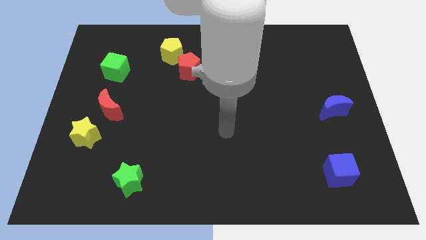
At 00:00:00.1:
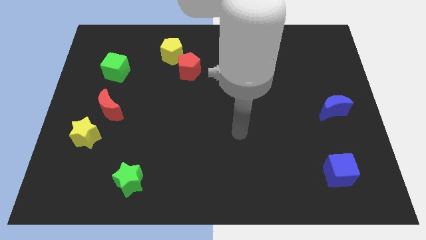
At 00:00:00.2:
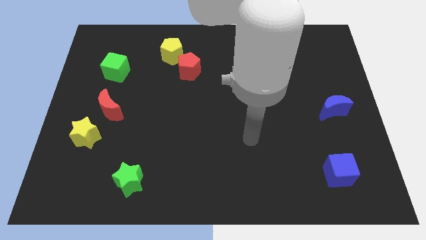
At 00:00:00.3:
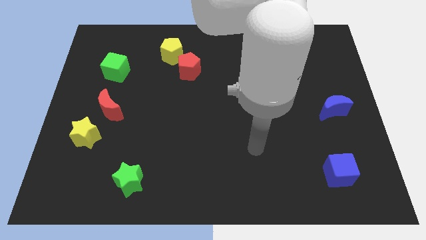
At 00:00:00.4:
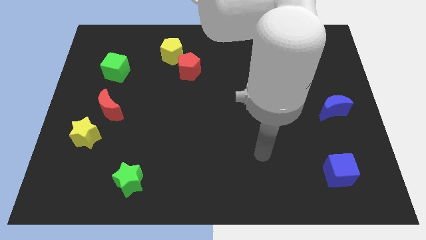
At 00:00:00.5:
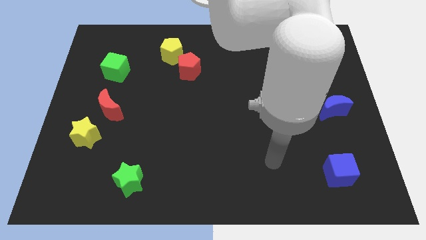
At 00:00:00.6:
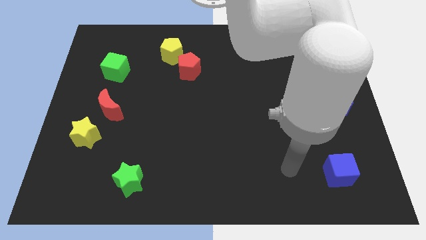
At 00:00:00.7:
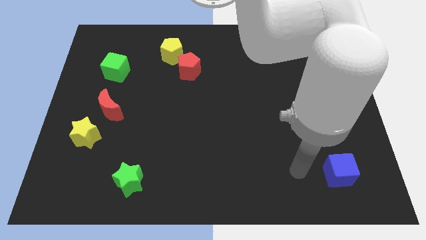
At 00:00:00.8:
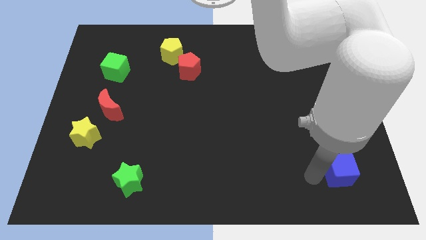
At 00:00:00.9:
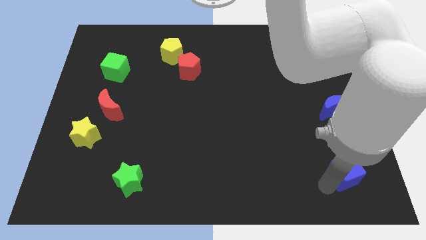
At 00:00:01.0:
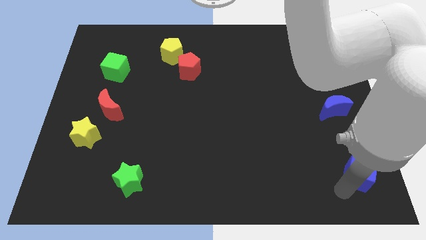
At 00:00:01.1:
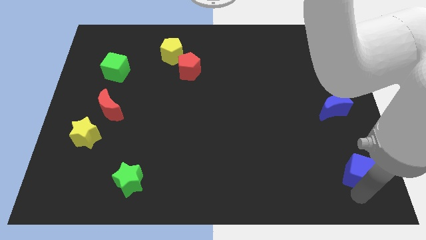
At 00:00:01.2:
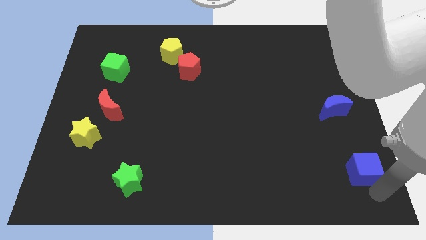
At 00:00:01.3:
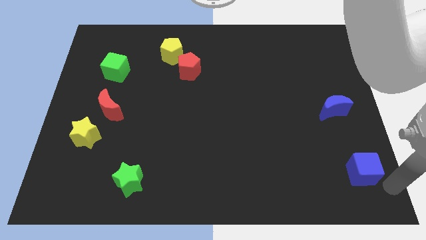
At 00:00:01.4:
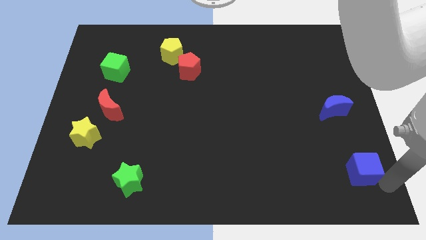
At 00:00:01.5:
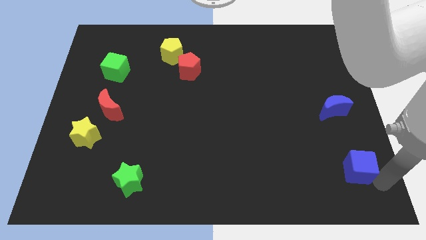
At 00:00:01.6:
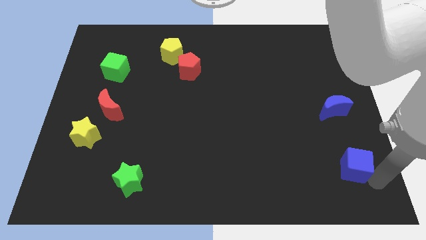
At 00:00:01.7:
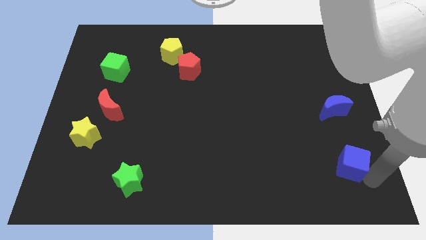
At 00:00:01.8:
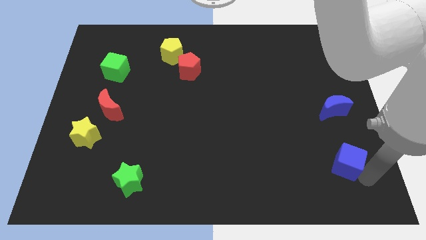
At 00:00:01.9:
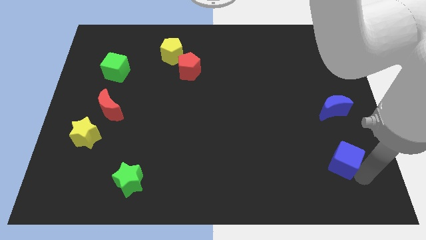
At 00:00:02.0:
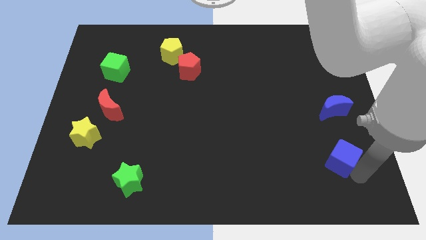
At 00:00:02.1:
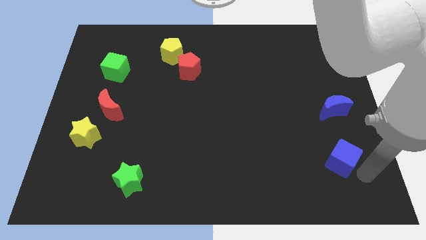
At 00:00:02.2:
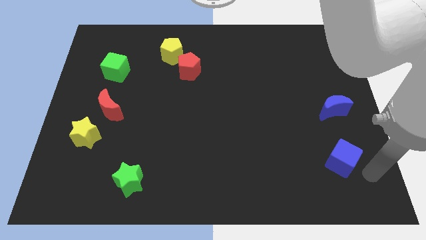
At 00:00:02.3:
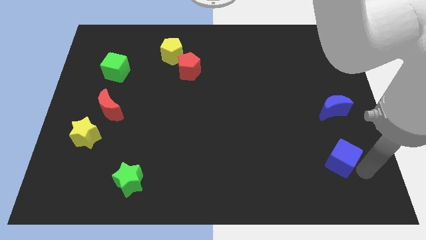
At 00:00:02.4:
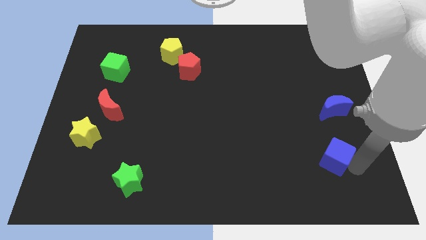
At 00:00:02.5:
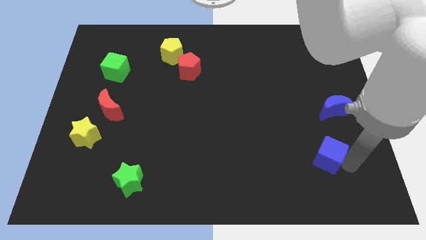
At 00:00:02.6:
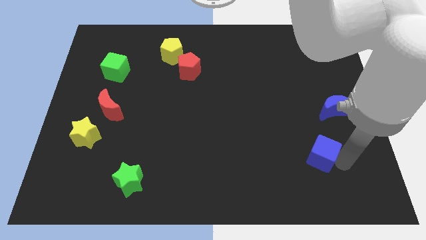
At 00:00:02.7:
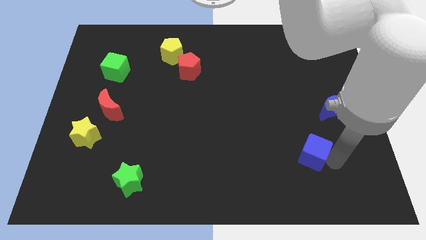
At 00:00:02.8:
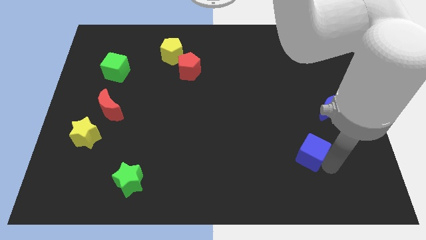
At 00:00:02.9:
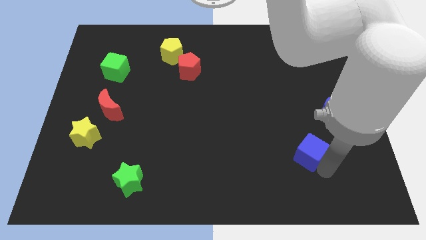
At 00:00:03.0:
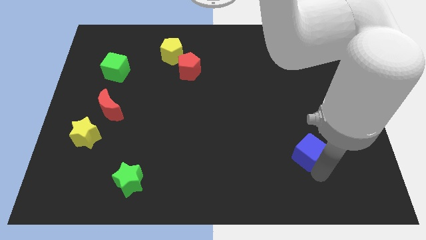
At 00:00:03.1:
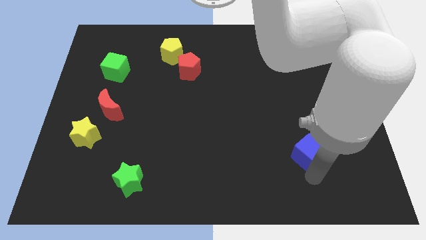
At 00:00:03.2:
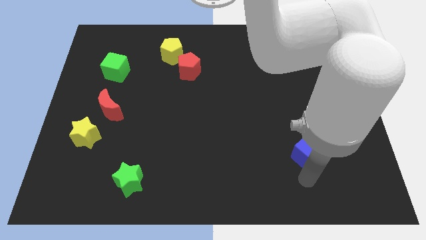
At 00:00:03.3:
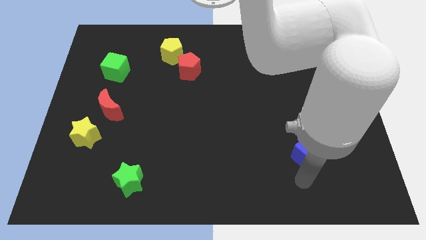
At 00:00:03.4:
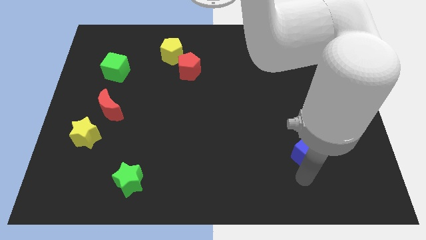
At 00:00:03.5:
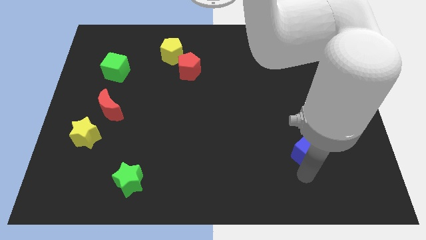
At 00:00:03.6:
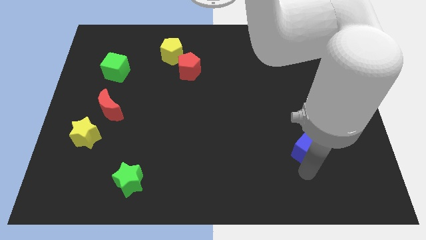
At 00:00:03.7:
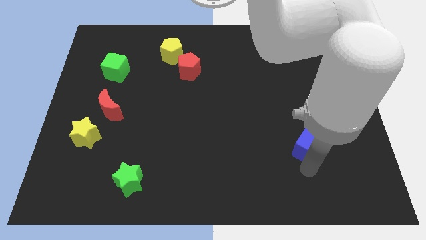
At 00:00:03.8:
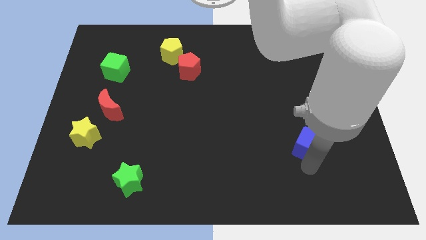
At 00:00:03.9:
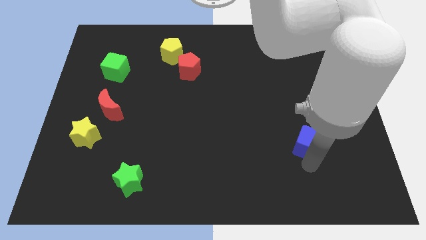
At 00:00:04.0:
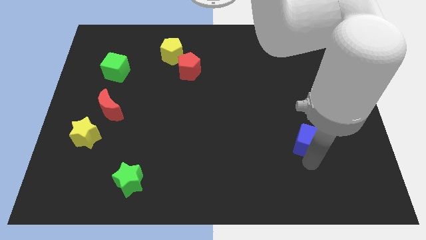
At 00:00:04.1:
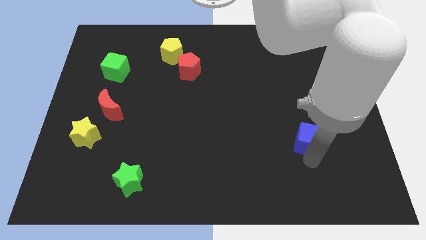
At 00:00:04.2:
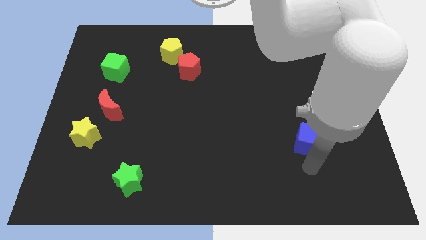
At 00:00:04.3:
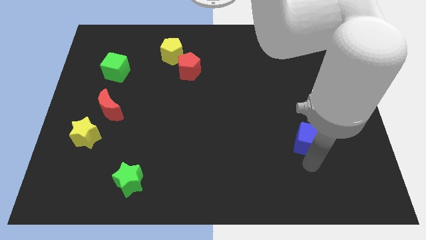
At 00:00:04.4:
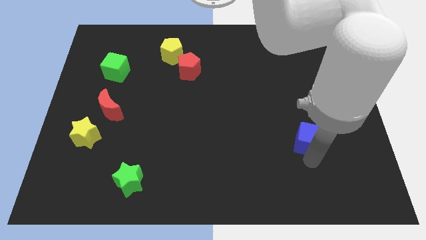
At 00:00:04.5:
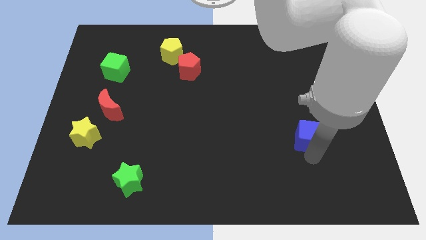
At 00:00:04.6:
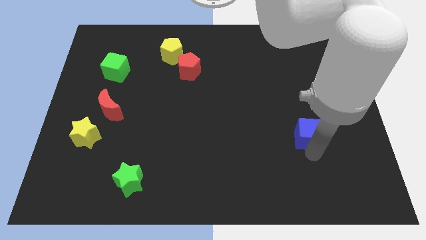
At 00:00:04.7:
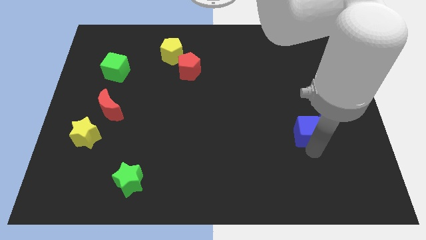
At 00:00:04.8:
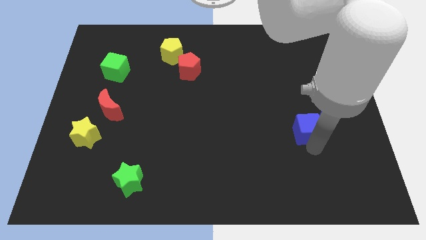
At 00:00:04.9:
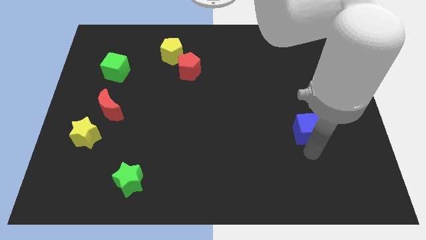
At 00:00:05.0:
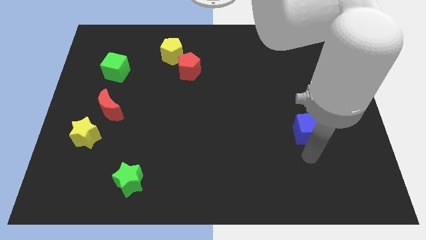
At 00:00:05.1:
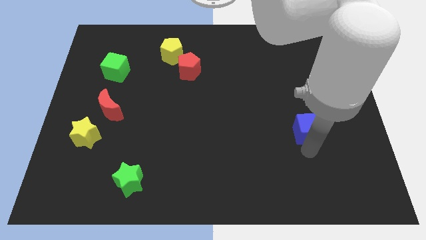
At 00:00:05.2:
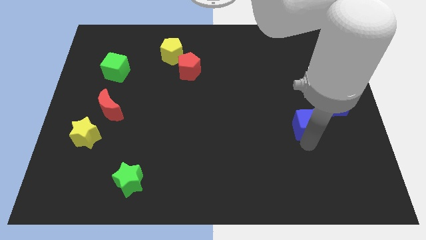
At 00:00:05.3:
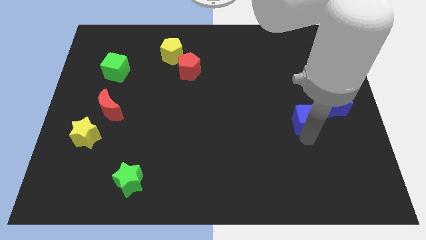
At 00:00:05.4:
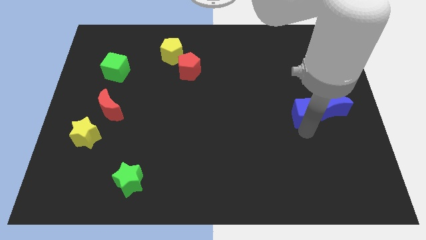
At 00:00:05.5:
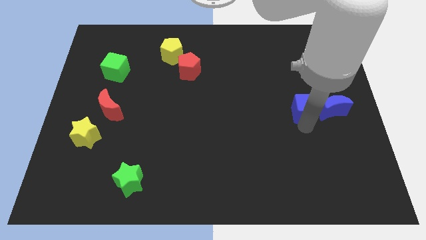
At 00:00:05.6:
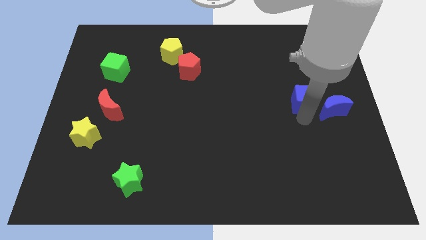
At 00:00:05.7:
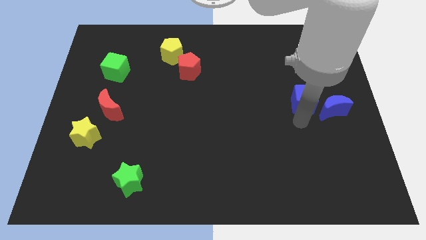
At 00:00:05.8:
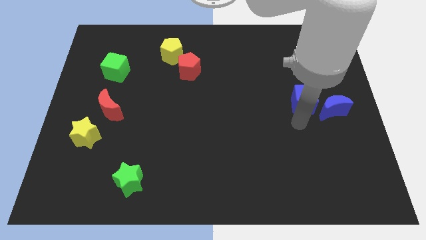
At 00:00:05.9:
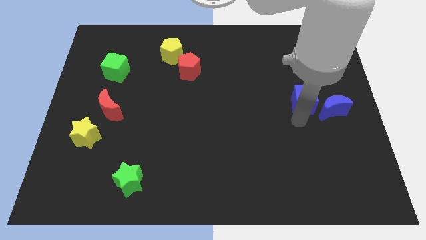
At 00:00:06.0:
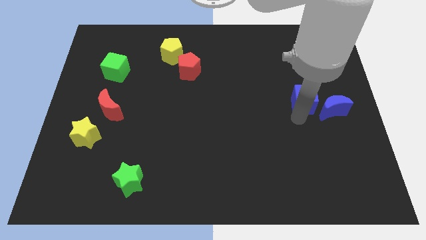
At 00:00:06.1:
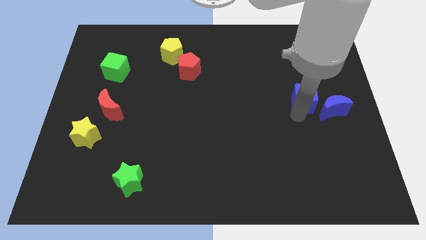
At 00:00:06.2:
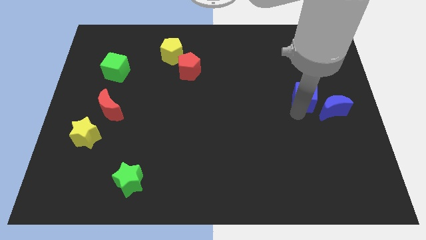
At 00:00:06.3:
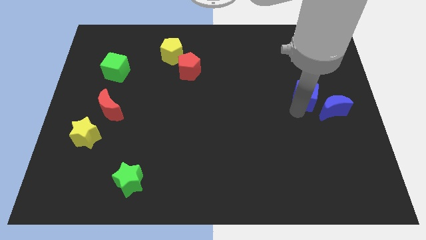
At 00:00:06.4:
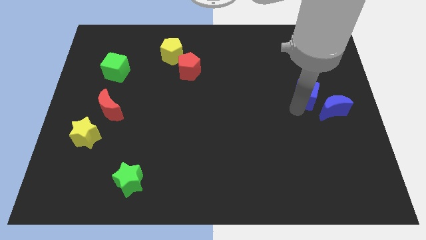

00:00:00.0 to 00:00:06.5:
move the blue cube up

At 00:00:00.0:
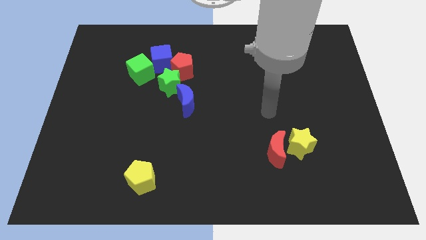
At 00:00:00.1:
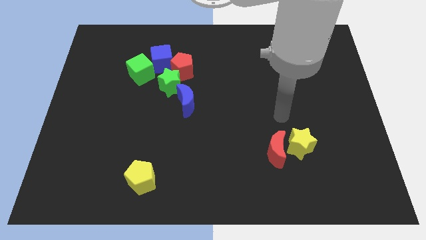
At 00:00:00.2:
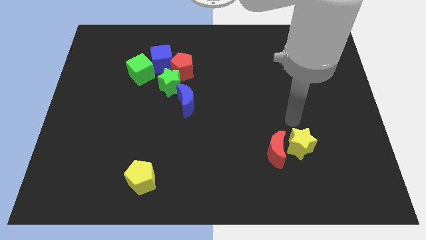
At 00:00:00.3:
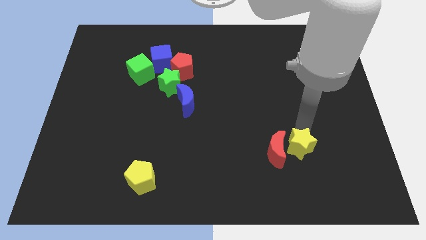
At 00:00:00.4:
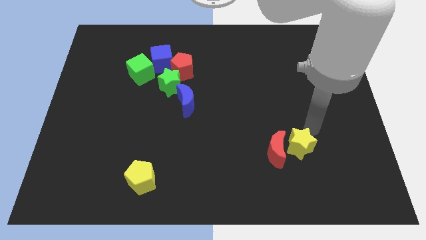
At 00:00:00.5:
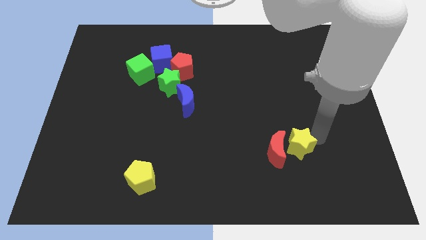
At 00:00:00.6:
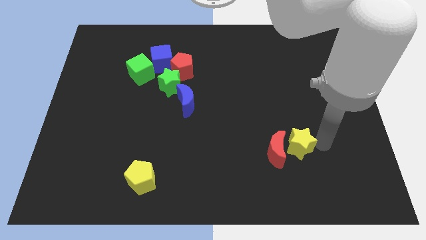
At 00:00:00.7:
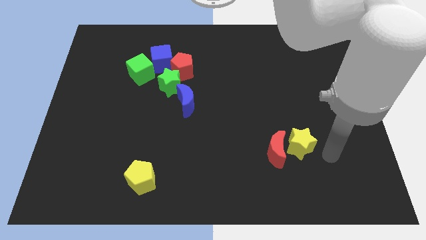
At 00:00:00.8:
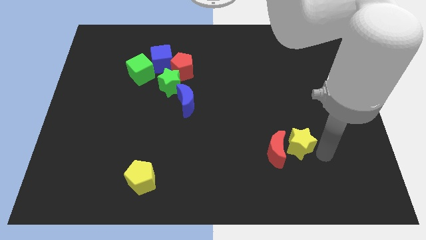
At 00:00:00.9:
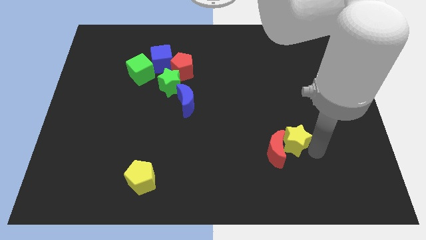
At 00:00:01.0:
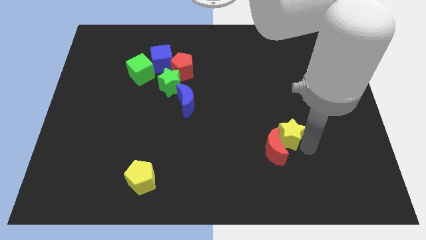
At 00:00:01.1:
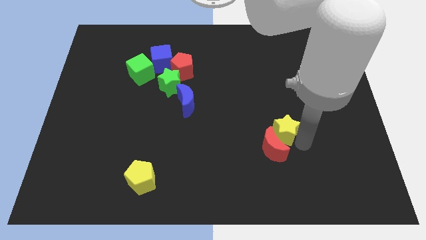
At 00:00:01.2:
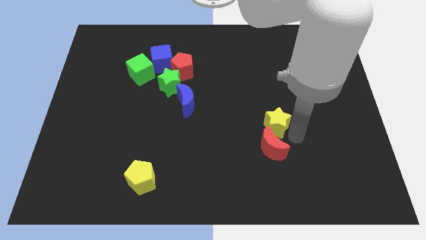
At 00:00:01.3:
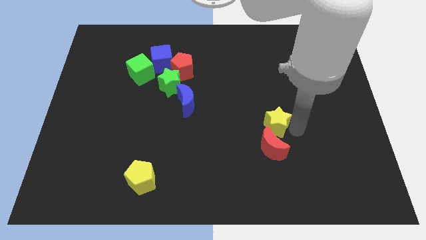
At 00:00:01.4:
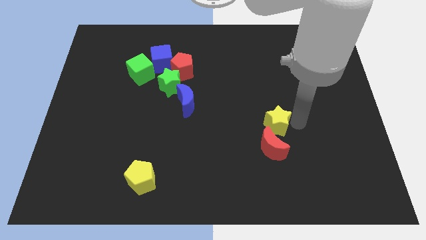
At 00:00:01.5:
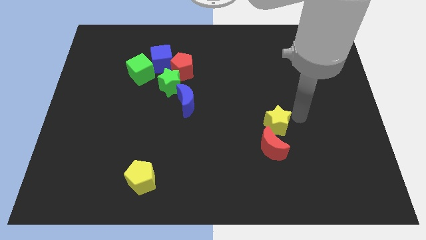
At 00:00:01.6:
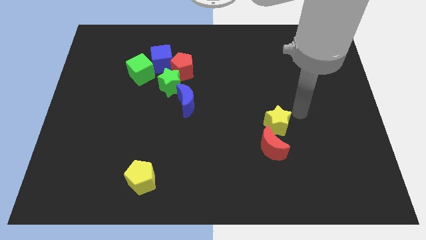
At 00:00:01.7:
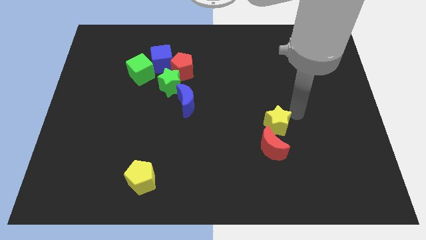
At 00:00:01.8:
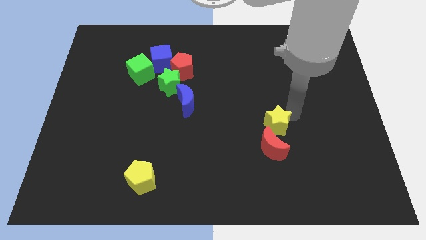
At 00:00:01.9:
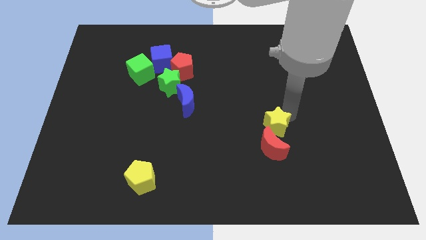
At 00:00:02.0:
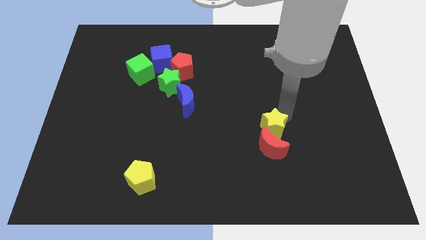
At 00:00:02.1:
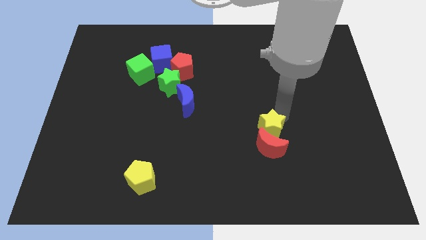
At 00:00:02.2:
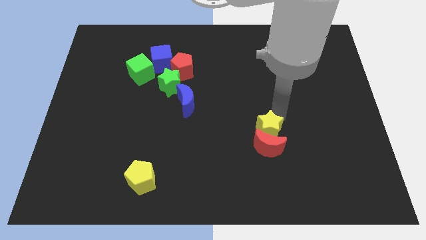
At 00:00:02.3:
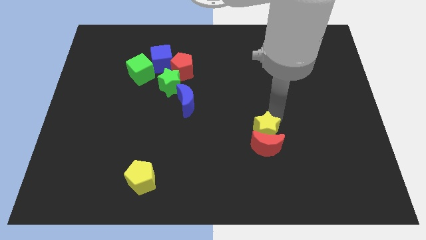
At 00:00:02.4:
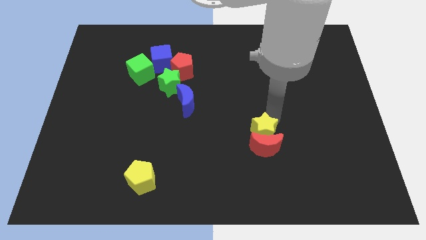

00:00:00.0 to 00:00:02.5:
slide the yellow star left slightly
